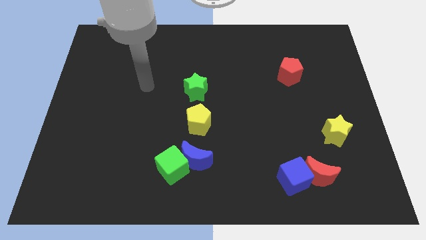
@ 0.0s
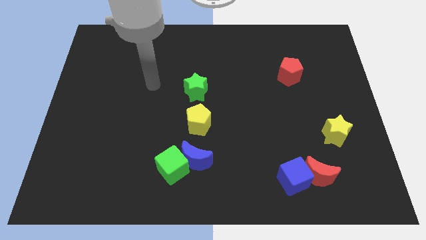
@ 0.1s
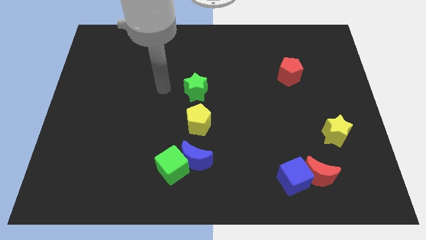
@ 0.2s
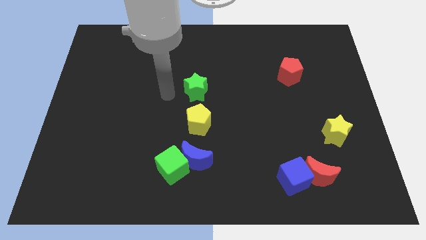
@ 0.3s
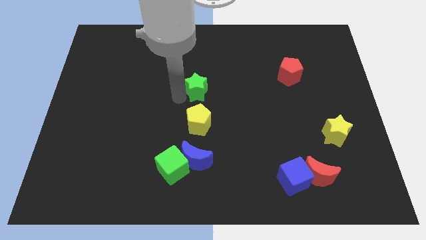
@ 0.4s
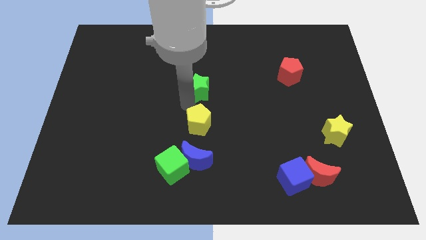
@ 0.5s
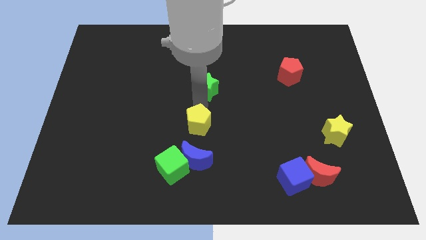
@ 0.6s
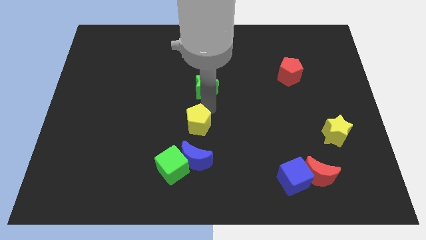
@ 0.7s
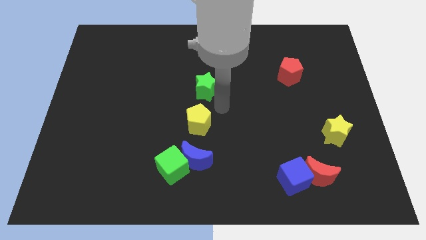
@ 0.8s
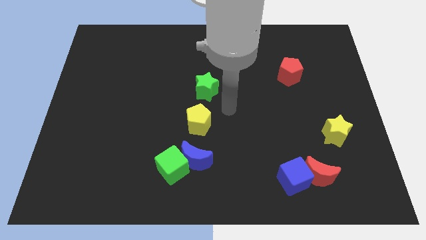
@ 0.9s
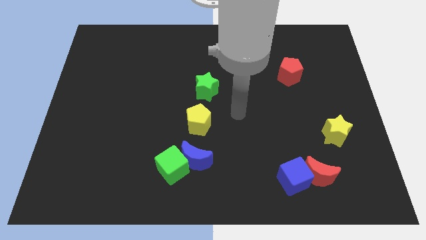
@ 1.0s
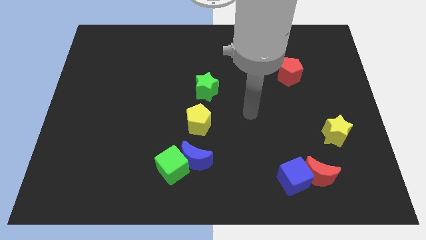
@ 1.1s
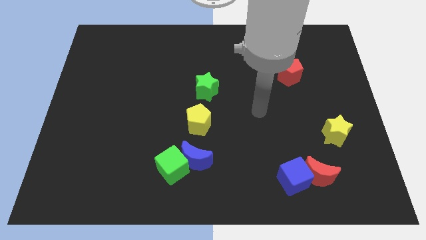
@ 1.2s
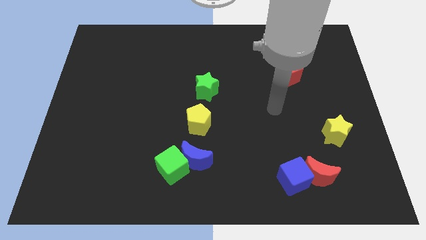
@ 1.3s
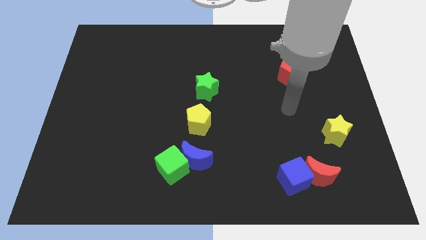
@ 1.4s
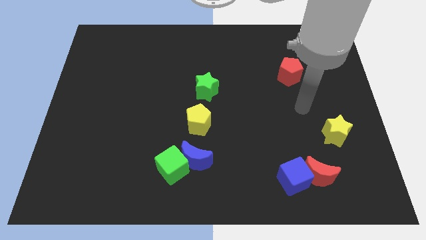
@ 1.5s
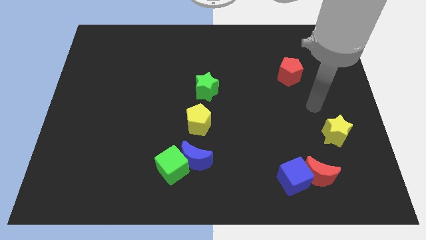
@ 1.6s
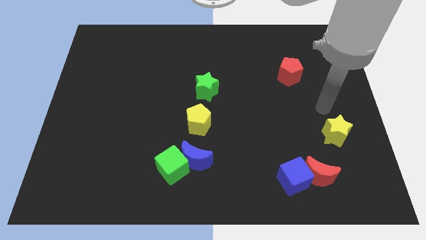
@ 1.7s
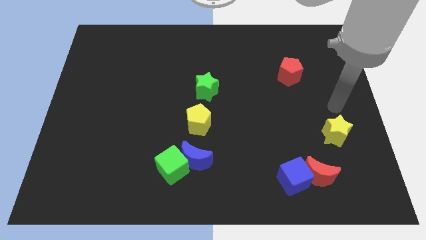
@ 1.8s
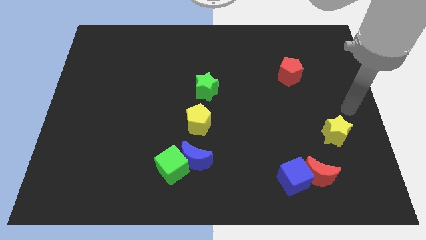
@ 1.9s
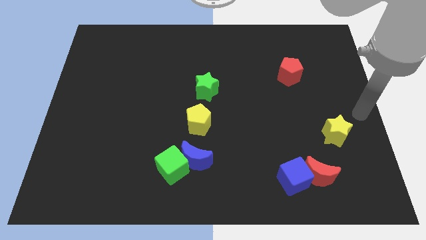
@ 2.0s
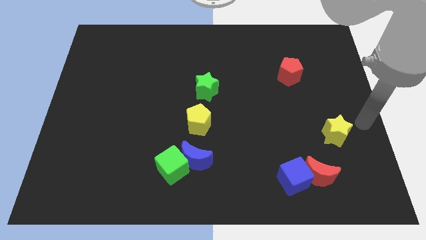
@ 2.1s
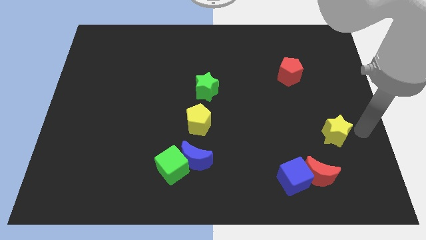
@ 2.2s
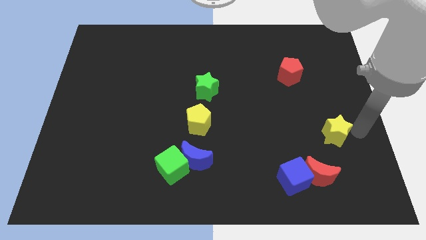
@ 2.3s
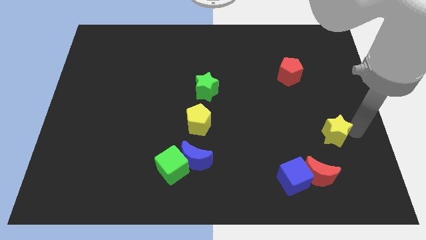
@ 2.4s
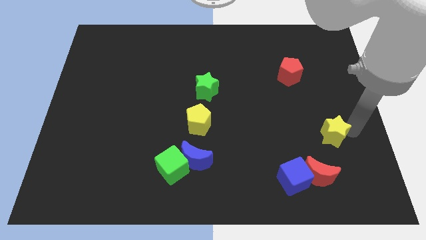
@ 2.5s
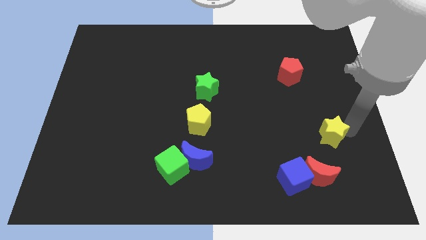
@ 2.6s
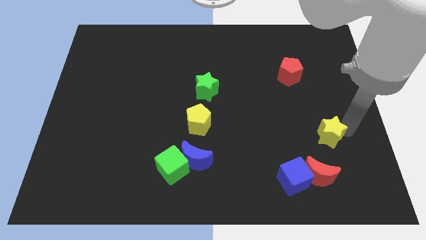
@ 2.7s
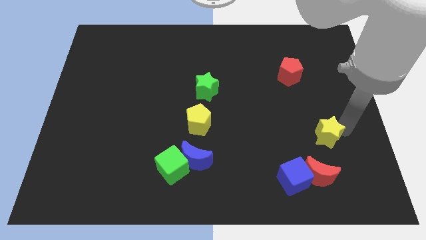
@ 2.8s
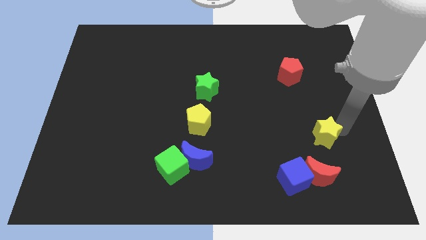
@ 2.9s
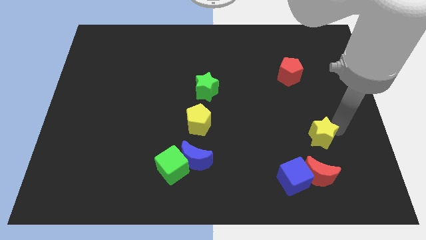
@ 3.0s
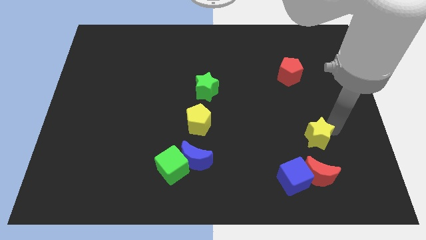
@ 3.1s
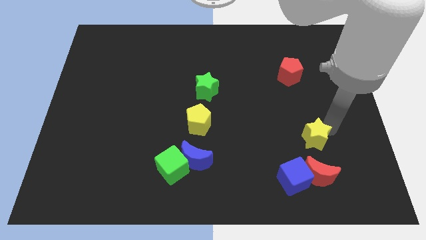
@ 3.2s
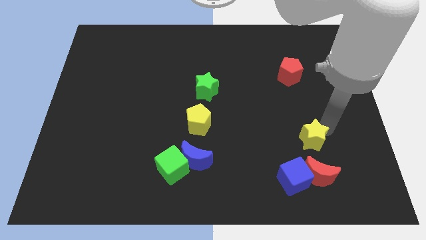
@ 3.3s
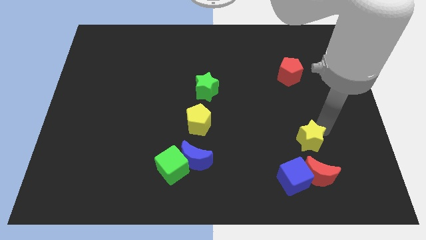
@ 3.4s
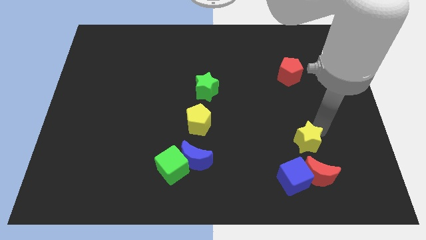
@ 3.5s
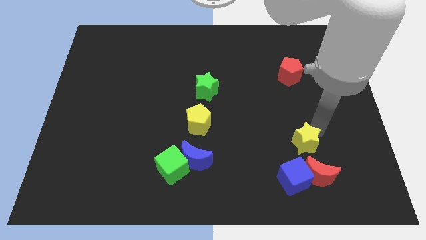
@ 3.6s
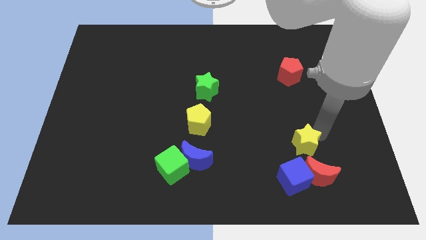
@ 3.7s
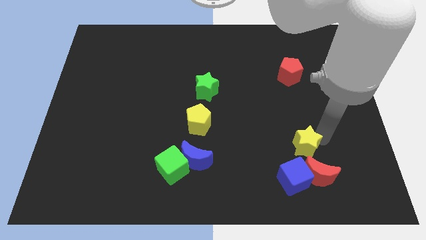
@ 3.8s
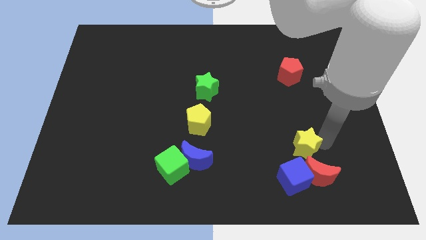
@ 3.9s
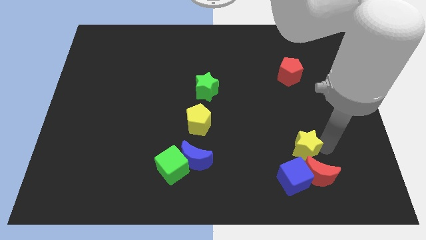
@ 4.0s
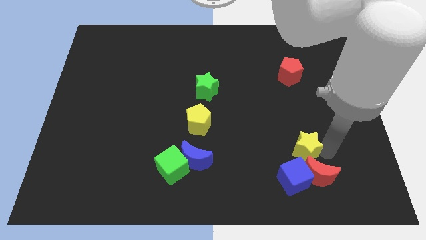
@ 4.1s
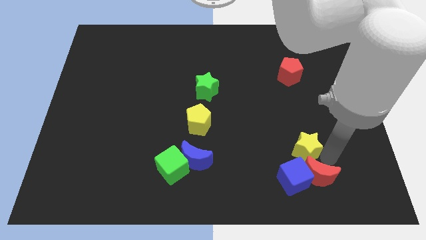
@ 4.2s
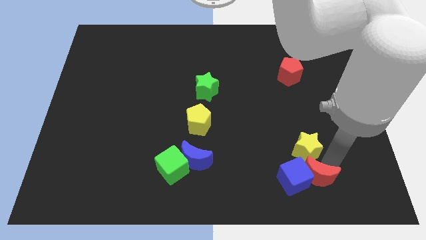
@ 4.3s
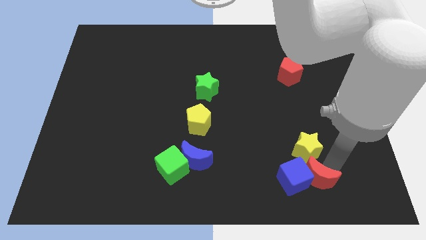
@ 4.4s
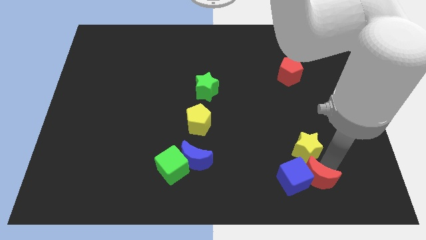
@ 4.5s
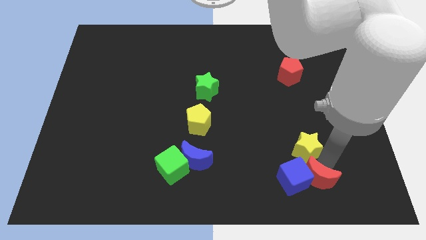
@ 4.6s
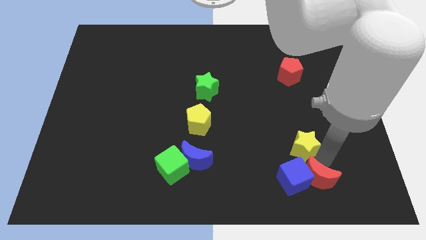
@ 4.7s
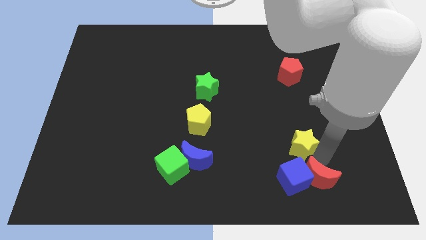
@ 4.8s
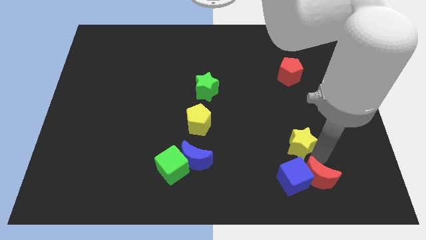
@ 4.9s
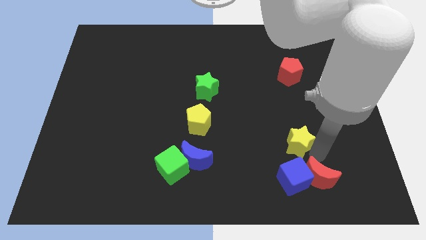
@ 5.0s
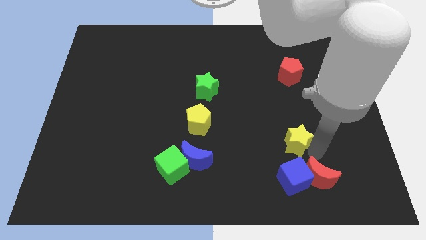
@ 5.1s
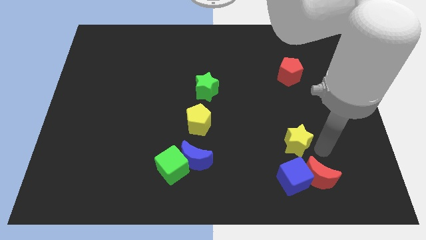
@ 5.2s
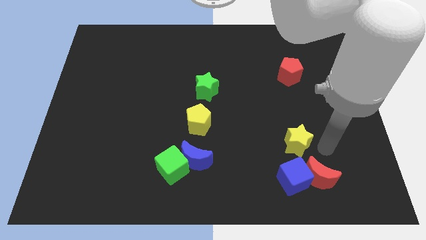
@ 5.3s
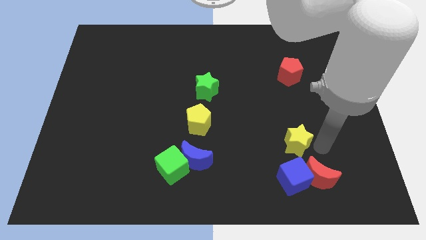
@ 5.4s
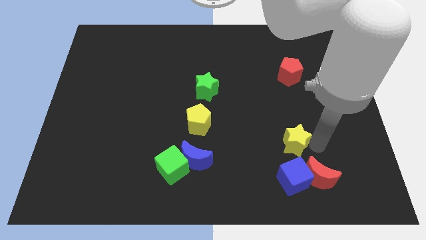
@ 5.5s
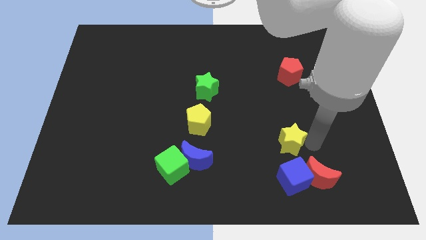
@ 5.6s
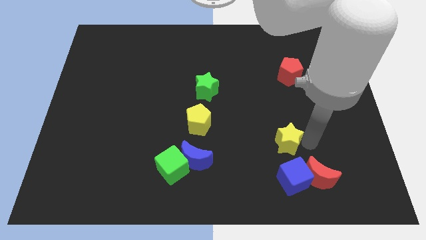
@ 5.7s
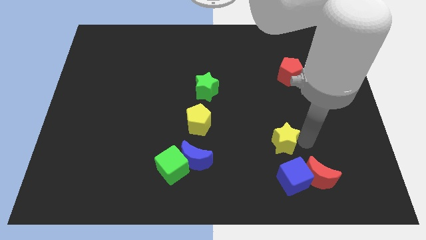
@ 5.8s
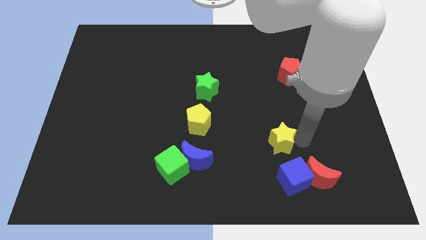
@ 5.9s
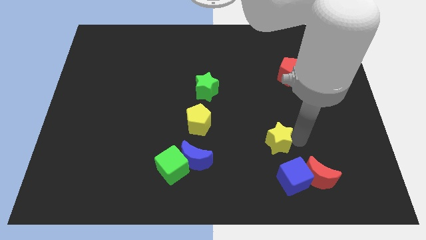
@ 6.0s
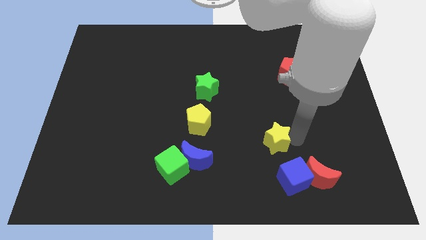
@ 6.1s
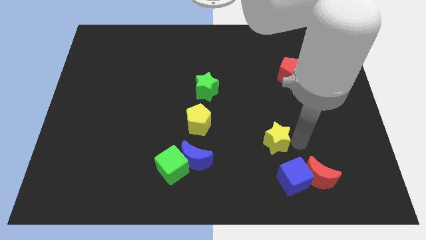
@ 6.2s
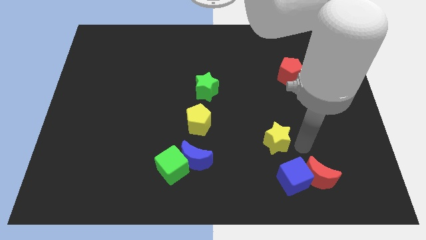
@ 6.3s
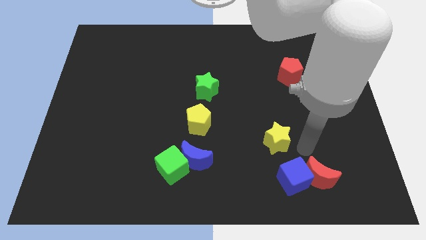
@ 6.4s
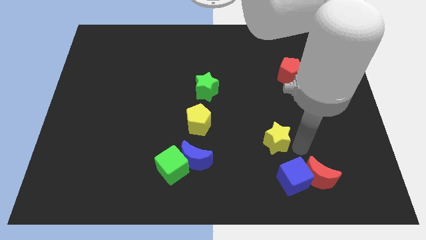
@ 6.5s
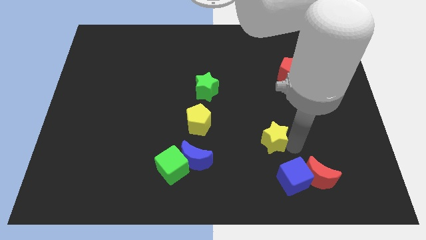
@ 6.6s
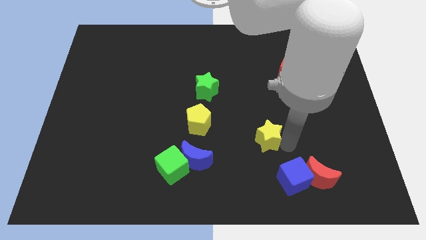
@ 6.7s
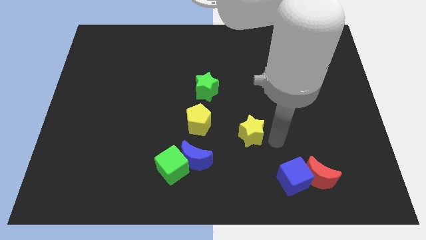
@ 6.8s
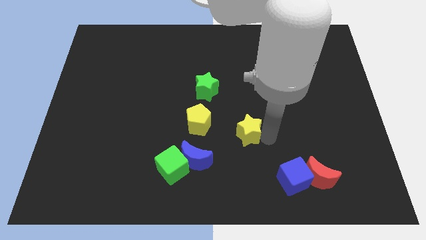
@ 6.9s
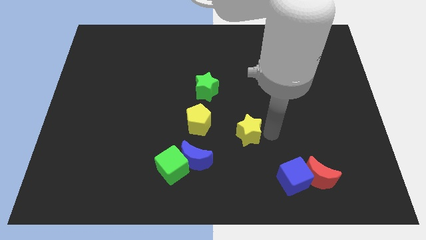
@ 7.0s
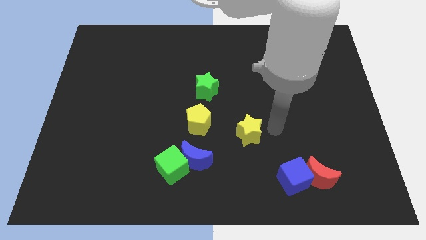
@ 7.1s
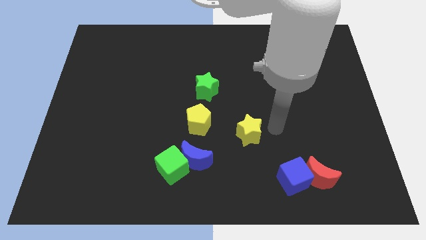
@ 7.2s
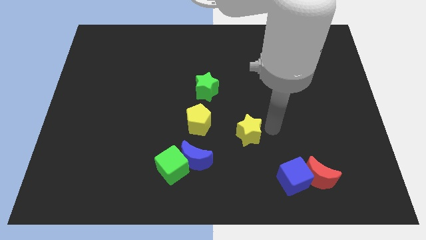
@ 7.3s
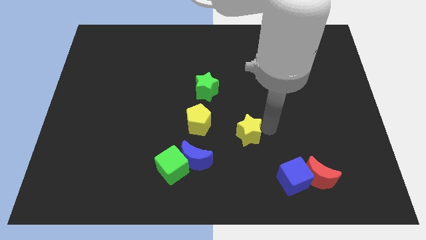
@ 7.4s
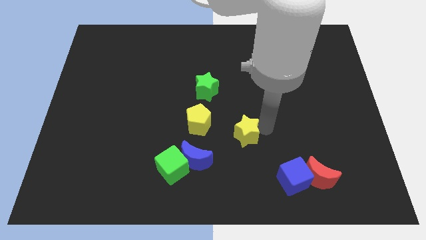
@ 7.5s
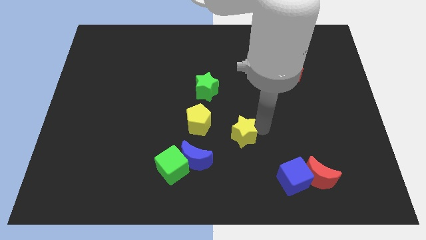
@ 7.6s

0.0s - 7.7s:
slide the yellow star diagonally up and to the right of the blue moon
